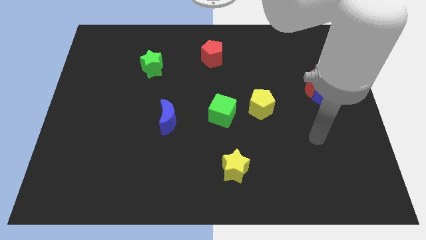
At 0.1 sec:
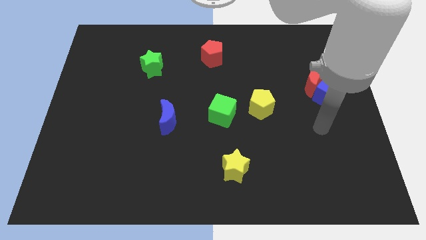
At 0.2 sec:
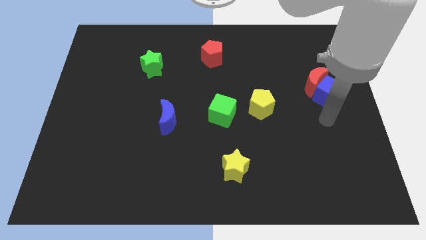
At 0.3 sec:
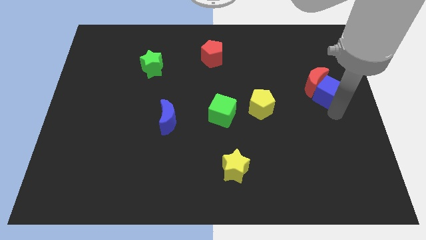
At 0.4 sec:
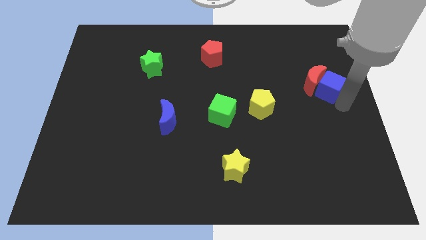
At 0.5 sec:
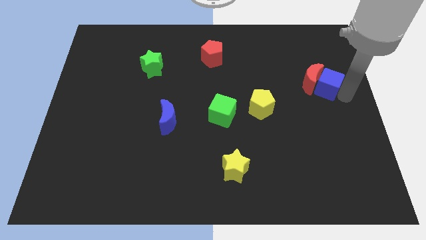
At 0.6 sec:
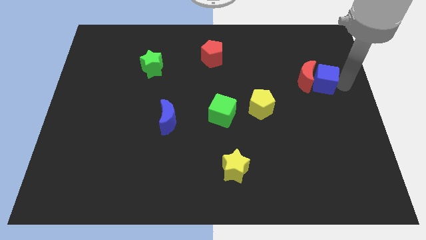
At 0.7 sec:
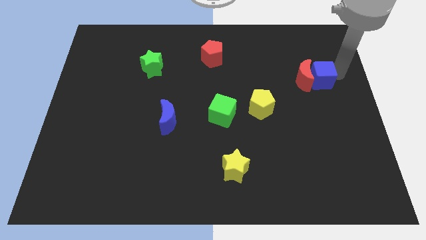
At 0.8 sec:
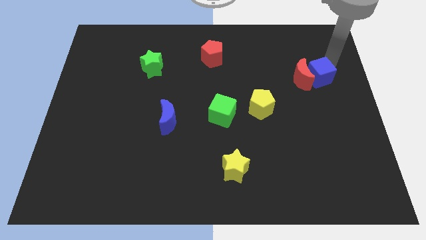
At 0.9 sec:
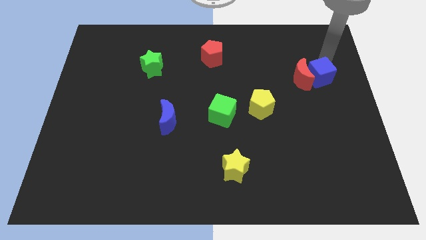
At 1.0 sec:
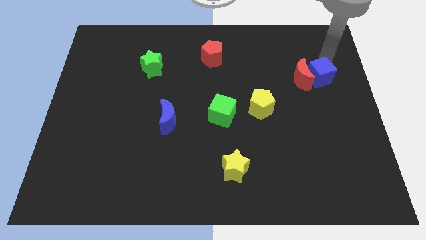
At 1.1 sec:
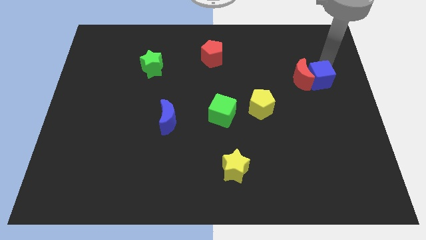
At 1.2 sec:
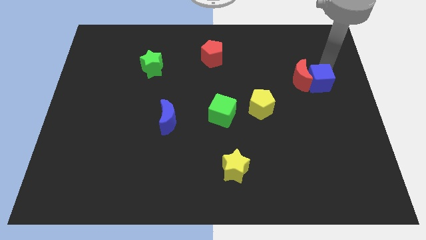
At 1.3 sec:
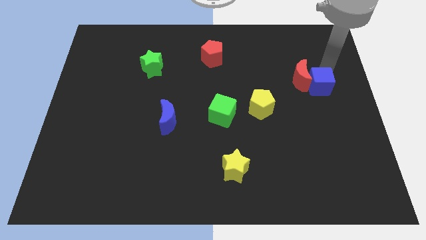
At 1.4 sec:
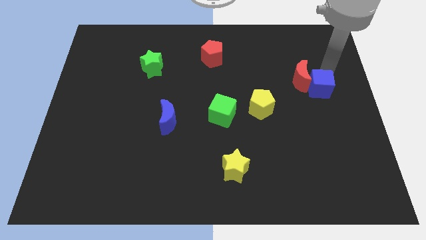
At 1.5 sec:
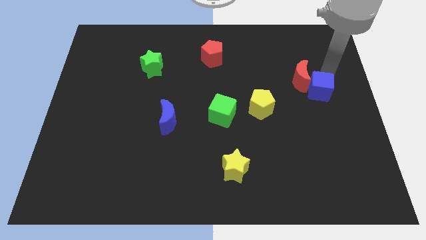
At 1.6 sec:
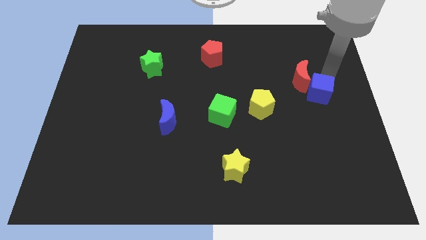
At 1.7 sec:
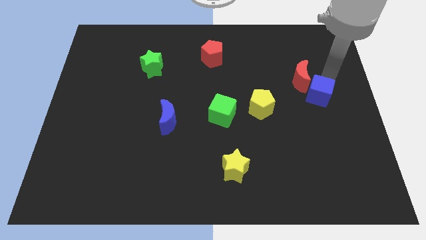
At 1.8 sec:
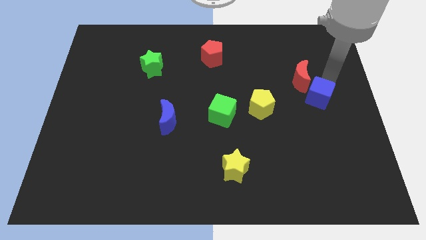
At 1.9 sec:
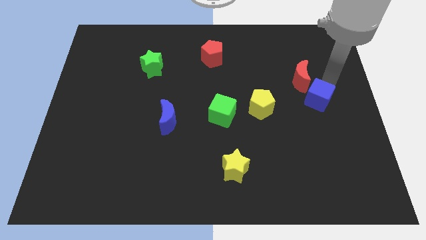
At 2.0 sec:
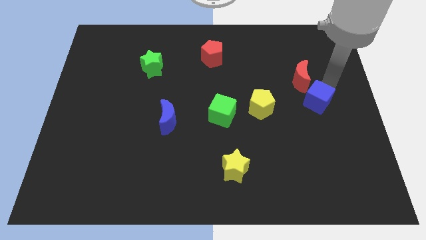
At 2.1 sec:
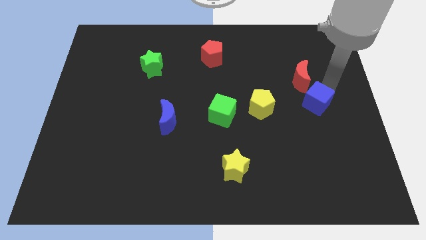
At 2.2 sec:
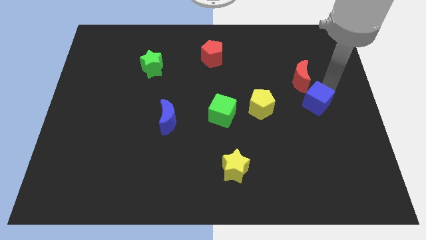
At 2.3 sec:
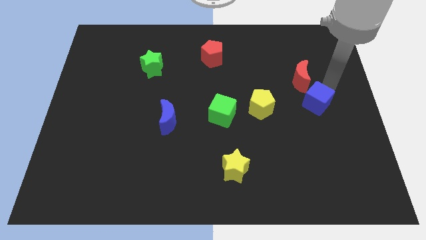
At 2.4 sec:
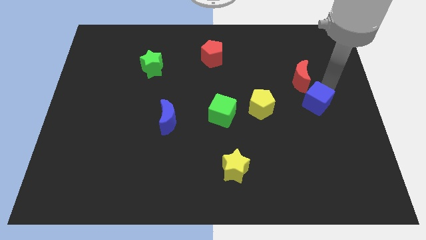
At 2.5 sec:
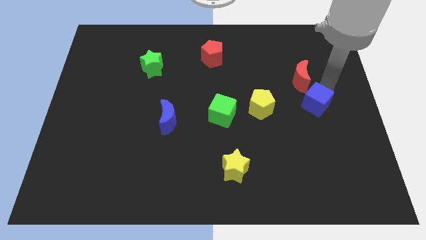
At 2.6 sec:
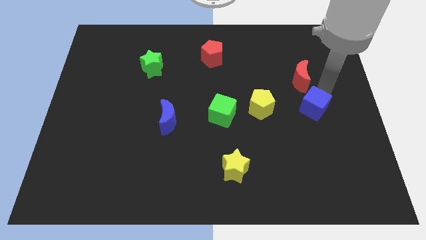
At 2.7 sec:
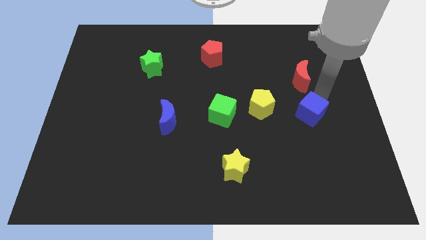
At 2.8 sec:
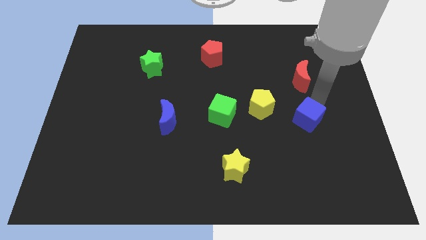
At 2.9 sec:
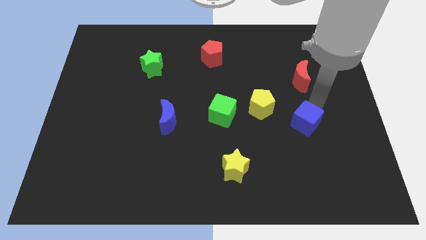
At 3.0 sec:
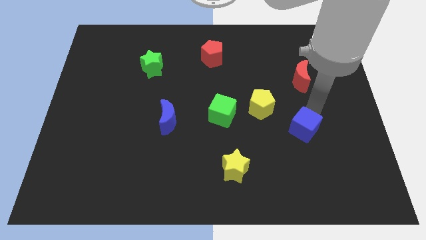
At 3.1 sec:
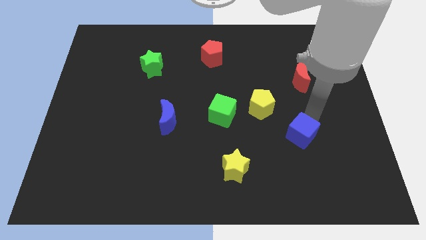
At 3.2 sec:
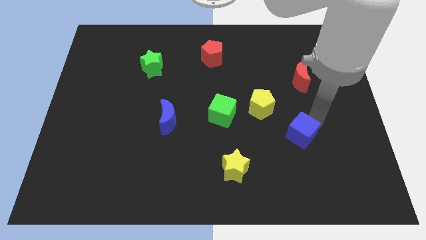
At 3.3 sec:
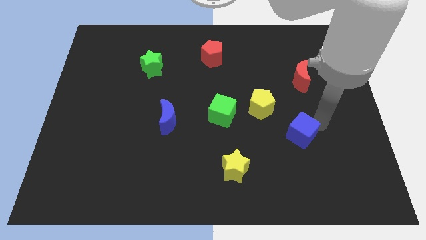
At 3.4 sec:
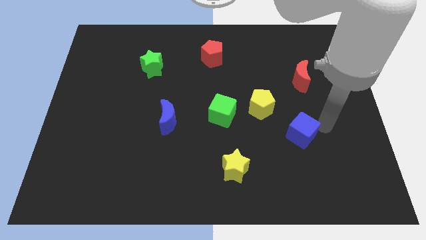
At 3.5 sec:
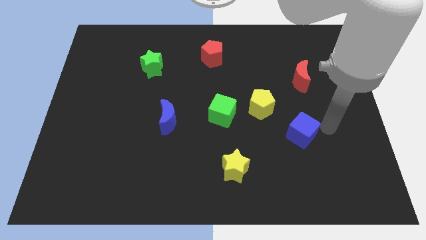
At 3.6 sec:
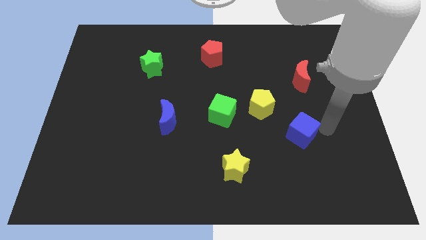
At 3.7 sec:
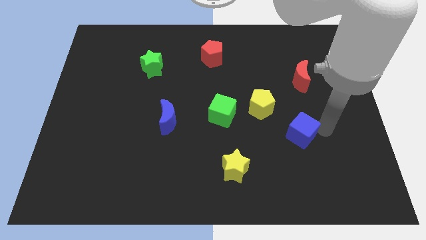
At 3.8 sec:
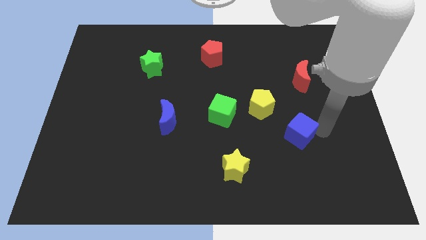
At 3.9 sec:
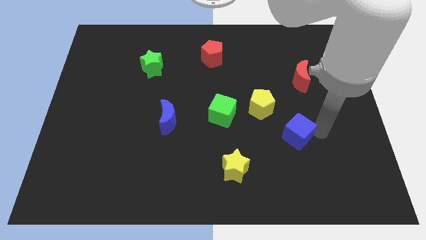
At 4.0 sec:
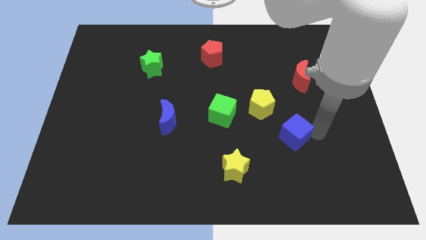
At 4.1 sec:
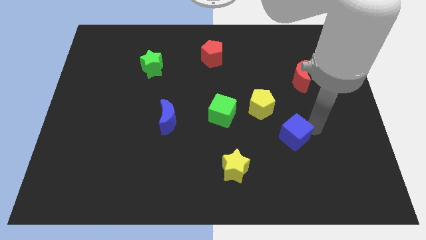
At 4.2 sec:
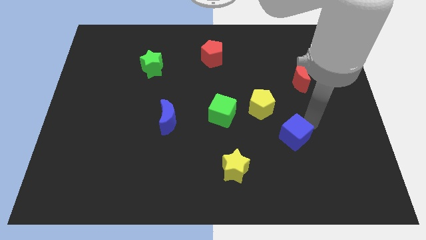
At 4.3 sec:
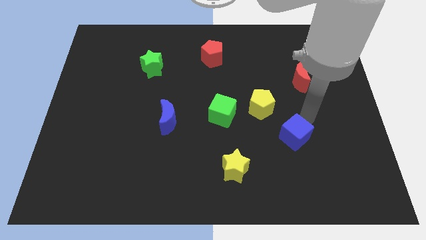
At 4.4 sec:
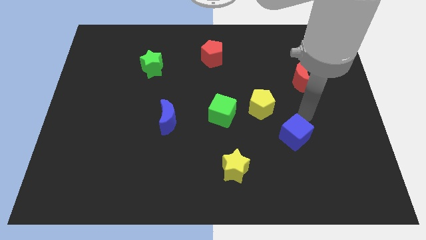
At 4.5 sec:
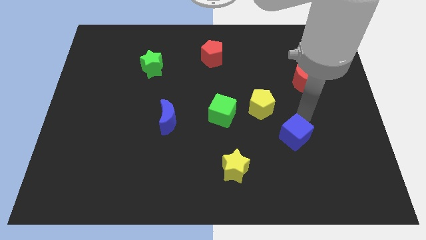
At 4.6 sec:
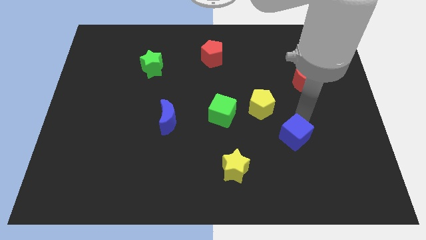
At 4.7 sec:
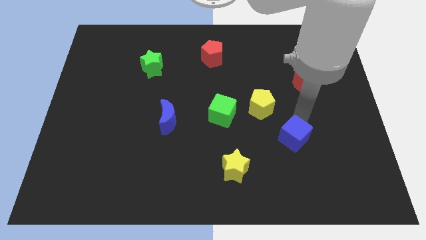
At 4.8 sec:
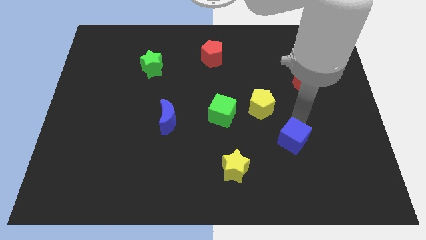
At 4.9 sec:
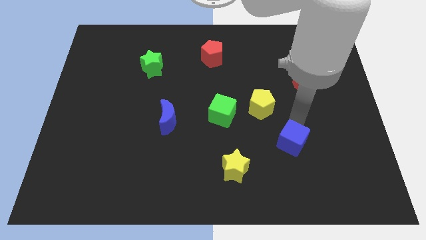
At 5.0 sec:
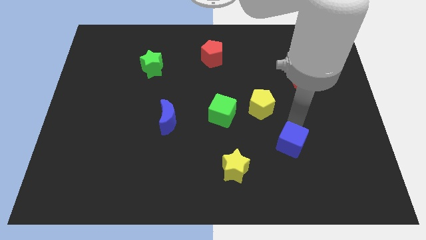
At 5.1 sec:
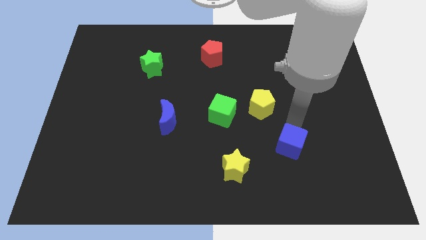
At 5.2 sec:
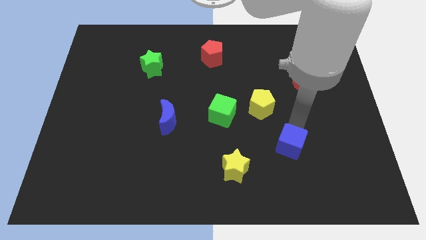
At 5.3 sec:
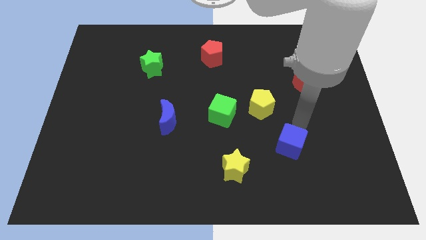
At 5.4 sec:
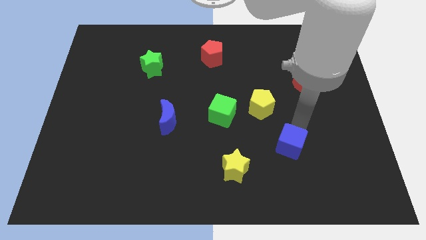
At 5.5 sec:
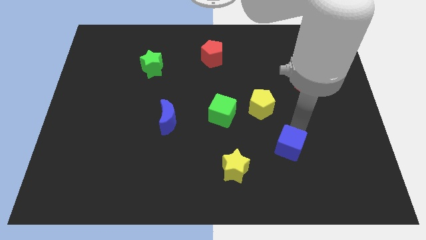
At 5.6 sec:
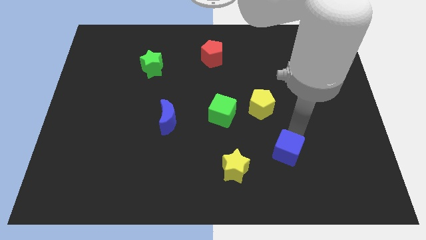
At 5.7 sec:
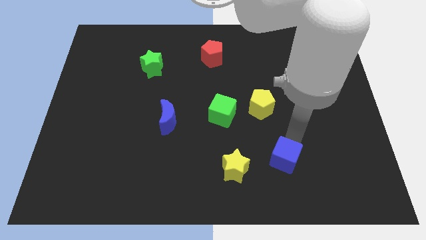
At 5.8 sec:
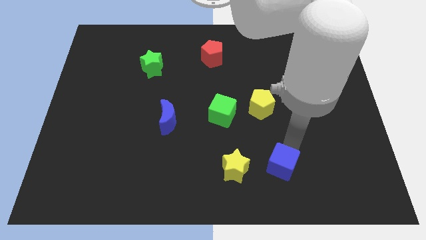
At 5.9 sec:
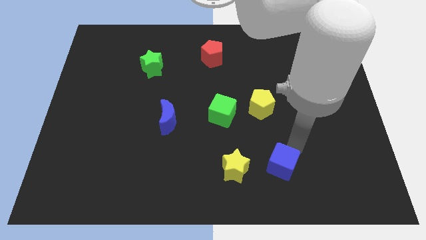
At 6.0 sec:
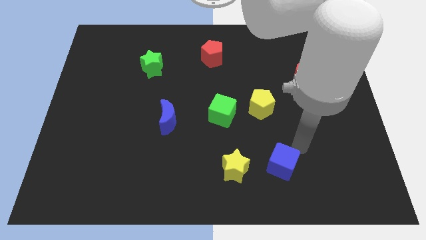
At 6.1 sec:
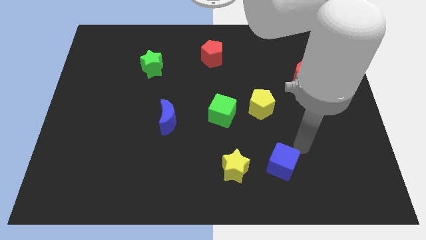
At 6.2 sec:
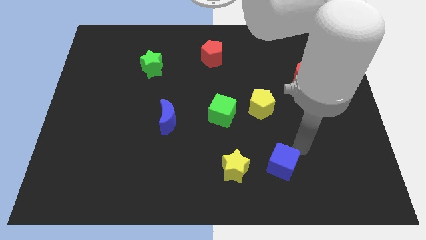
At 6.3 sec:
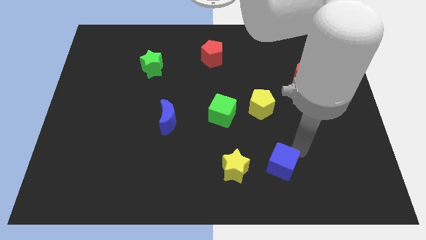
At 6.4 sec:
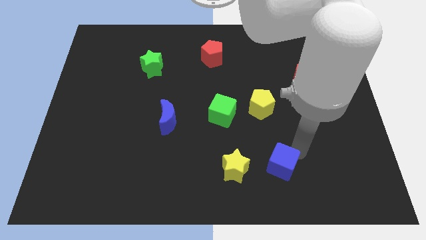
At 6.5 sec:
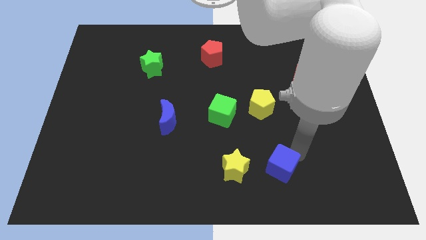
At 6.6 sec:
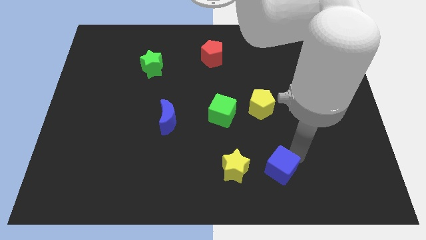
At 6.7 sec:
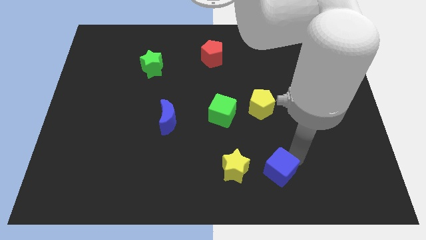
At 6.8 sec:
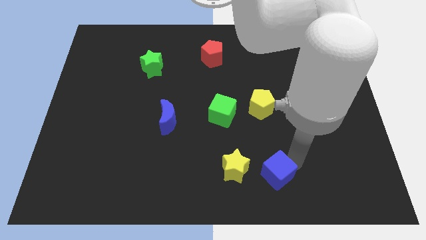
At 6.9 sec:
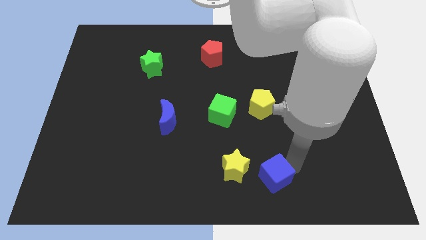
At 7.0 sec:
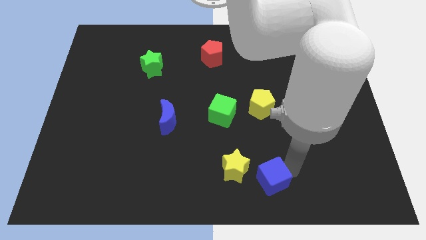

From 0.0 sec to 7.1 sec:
put the blue cube to the bottom

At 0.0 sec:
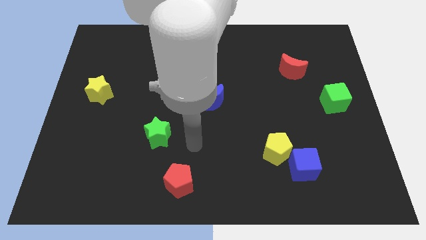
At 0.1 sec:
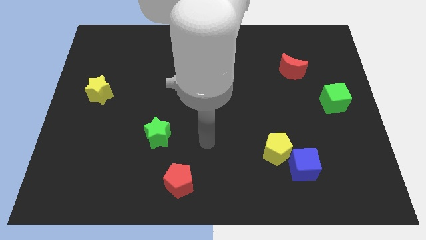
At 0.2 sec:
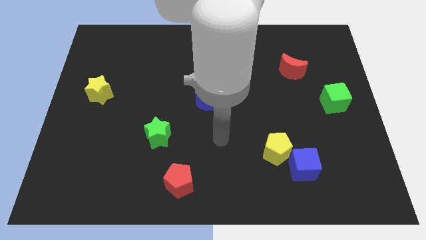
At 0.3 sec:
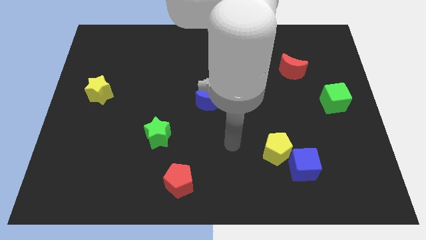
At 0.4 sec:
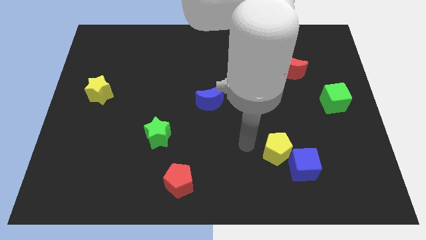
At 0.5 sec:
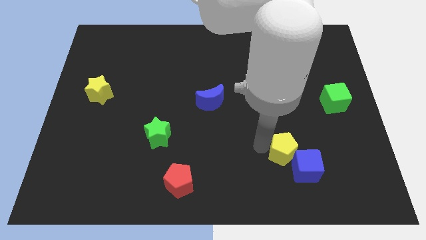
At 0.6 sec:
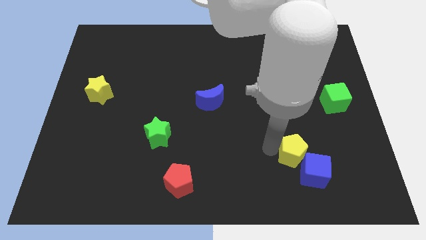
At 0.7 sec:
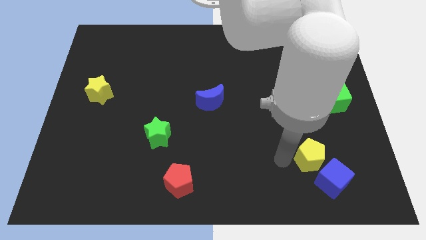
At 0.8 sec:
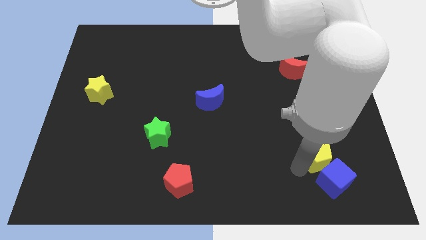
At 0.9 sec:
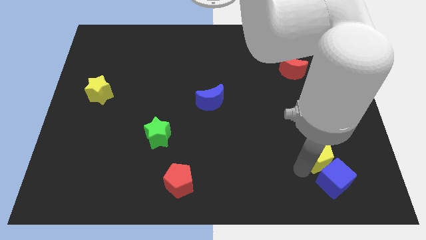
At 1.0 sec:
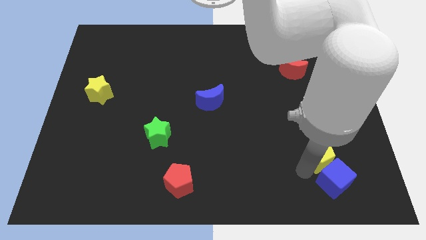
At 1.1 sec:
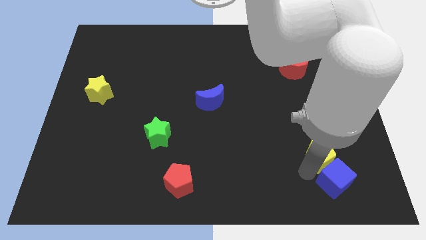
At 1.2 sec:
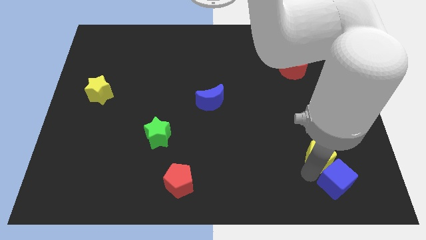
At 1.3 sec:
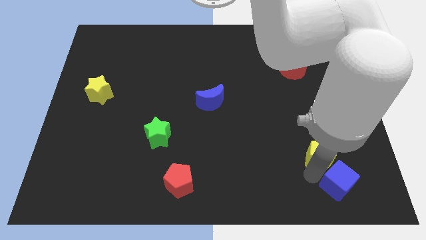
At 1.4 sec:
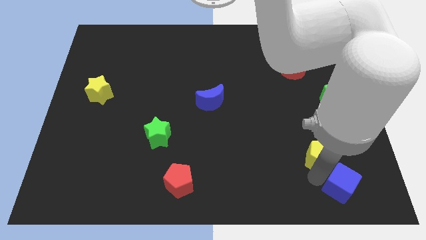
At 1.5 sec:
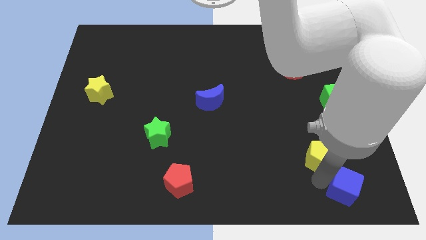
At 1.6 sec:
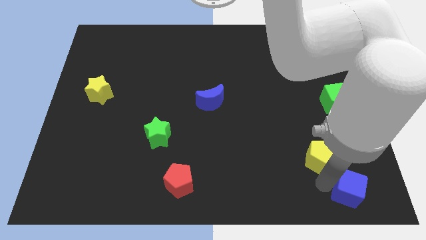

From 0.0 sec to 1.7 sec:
slide the blue cube to the lower right corner
